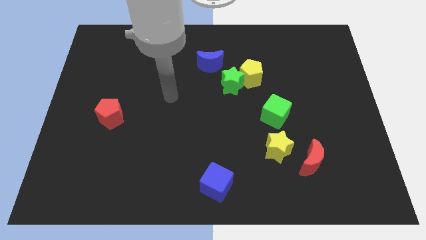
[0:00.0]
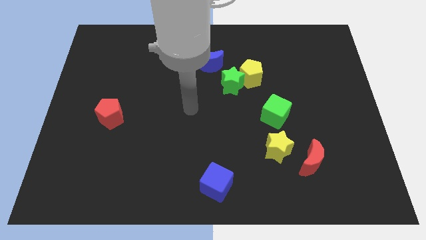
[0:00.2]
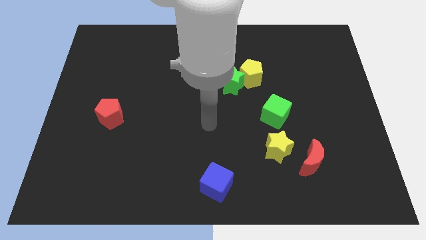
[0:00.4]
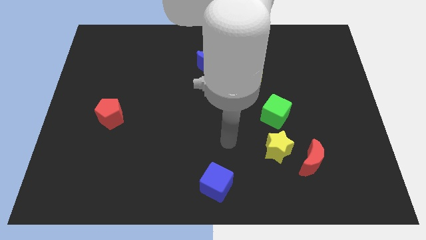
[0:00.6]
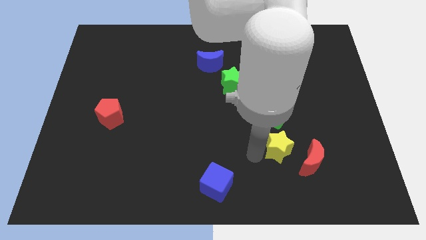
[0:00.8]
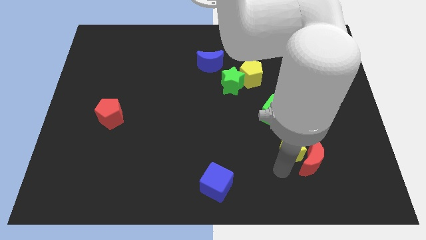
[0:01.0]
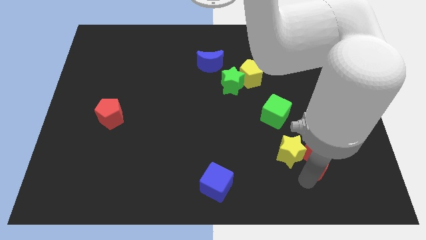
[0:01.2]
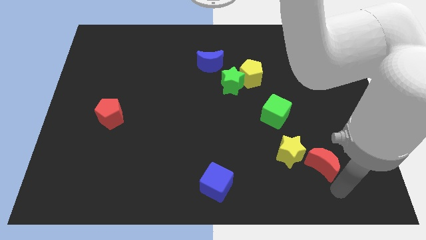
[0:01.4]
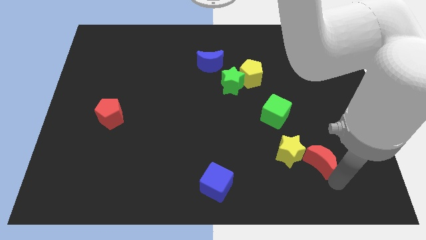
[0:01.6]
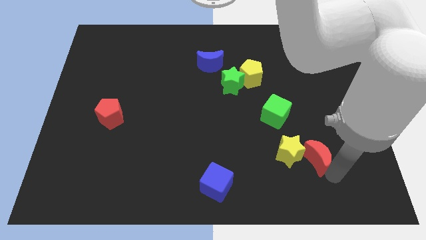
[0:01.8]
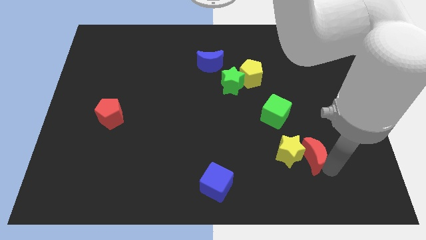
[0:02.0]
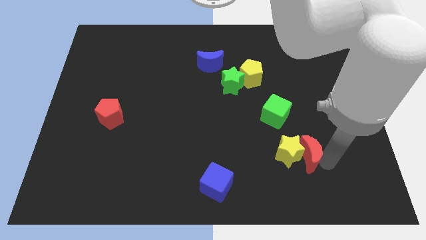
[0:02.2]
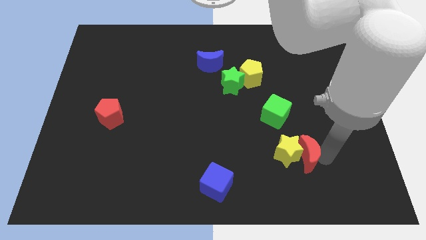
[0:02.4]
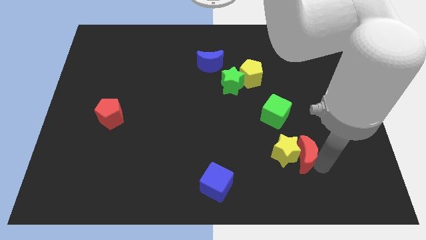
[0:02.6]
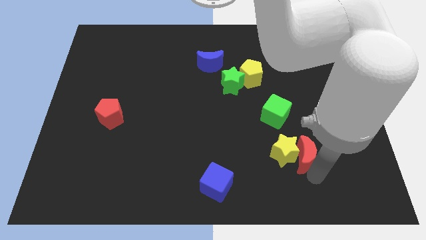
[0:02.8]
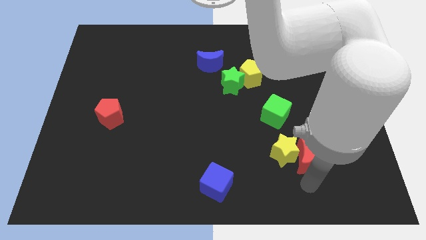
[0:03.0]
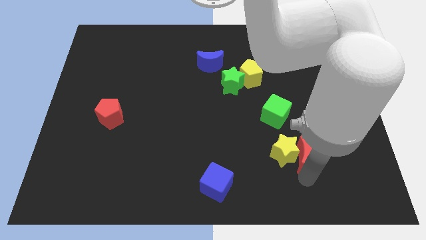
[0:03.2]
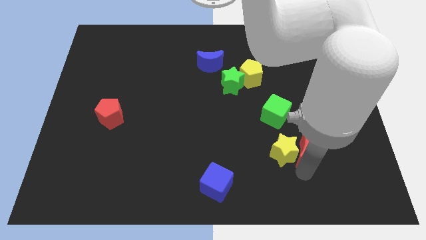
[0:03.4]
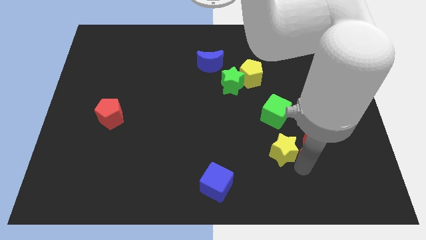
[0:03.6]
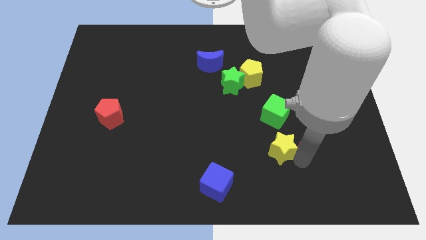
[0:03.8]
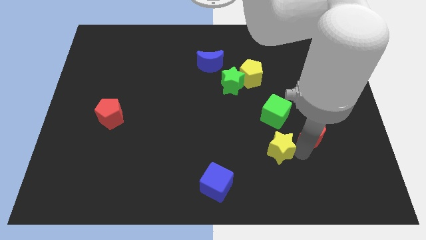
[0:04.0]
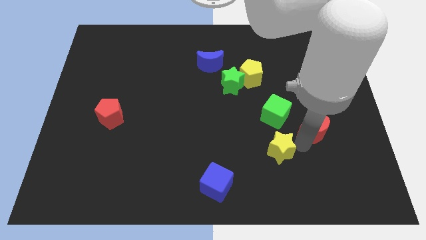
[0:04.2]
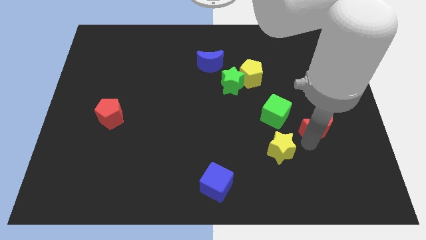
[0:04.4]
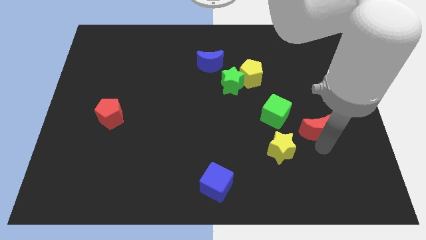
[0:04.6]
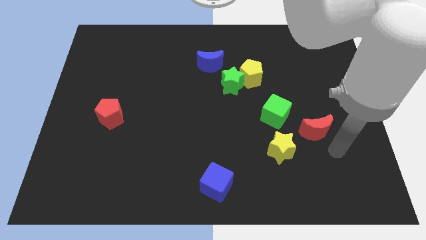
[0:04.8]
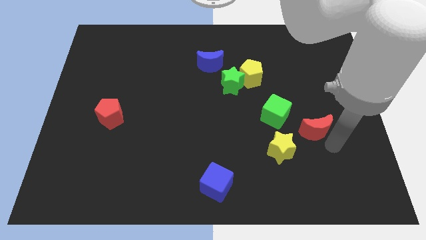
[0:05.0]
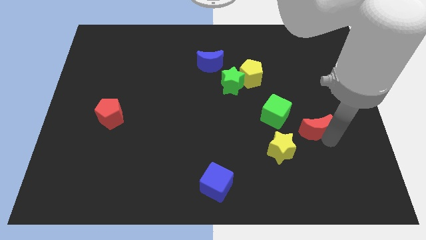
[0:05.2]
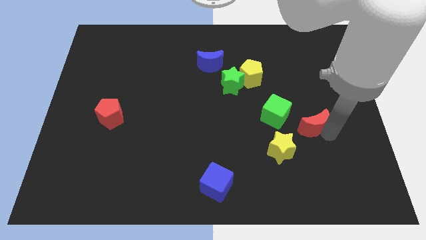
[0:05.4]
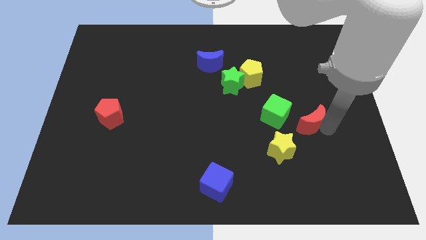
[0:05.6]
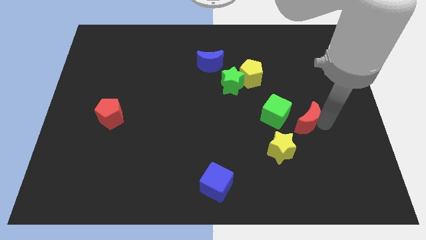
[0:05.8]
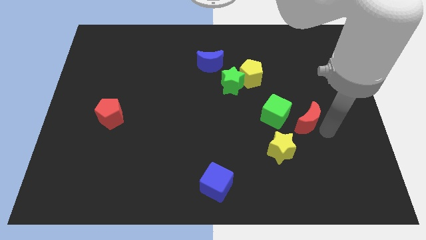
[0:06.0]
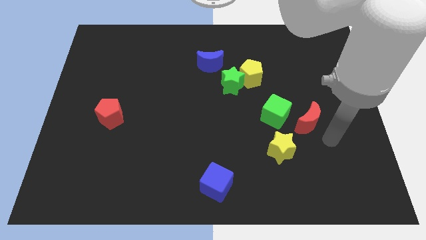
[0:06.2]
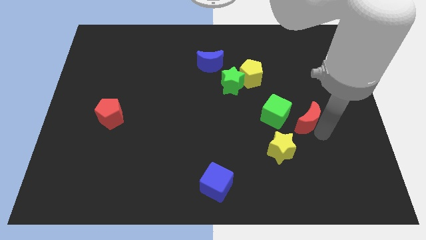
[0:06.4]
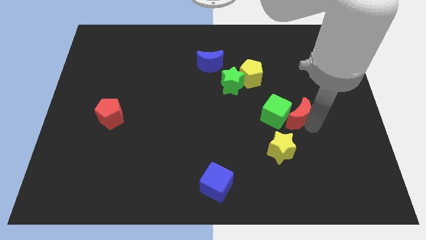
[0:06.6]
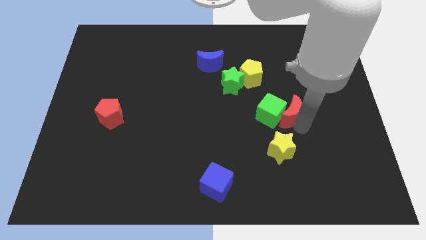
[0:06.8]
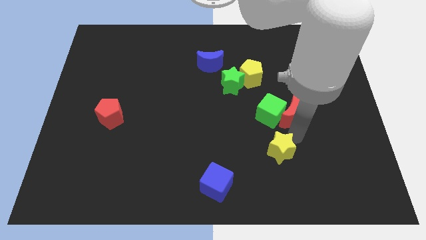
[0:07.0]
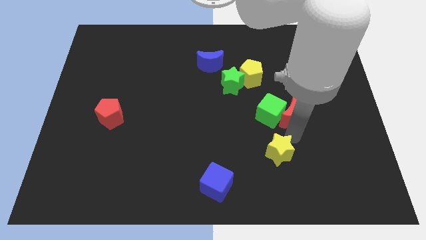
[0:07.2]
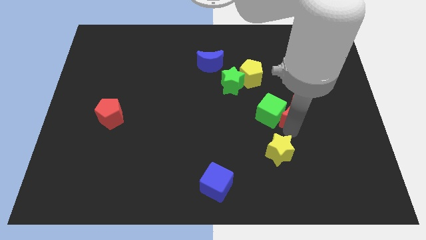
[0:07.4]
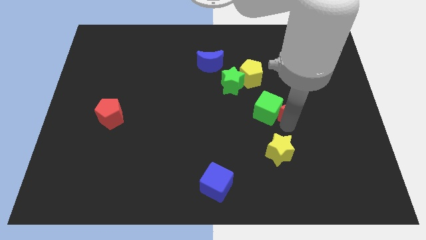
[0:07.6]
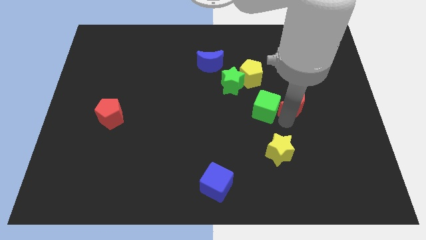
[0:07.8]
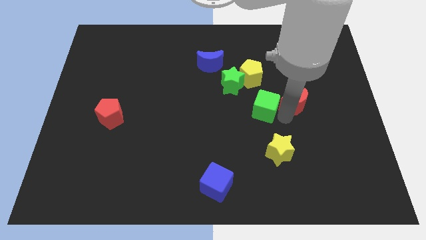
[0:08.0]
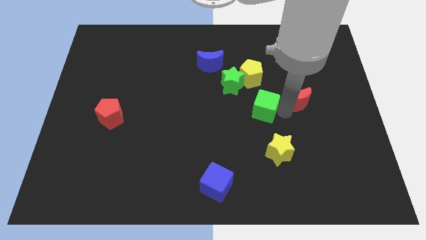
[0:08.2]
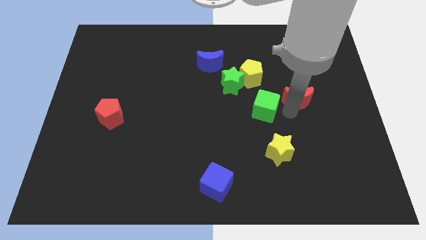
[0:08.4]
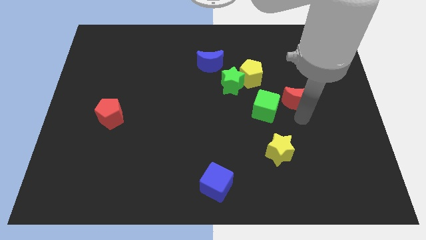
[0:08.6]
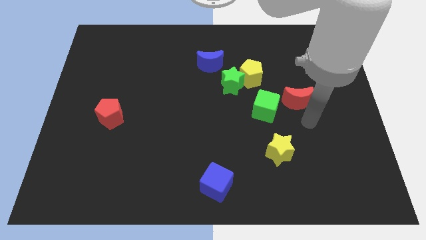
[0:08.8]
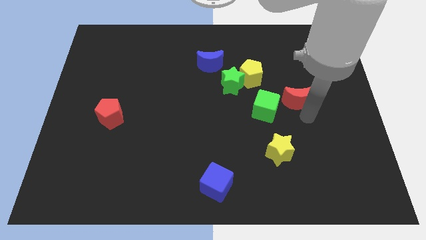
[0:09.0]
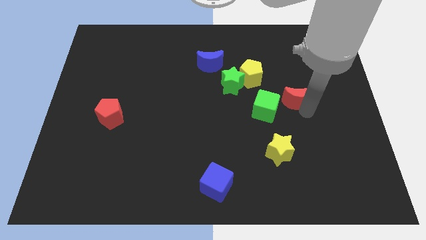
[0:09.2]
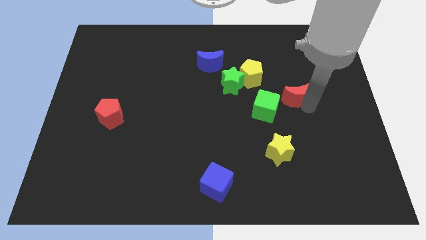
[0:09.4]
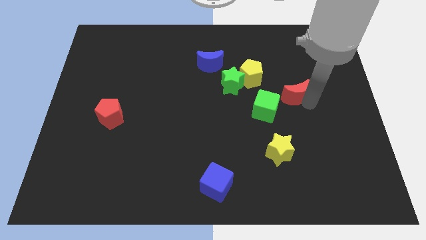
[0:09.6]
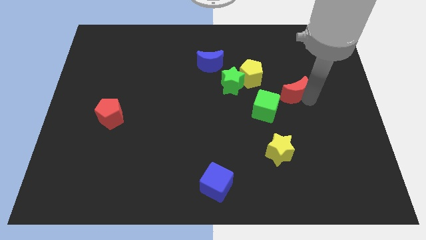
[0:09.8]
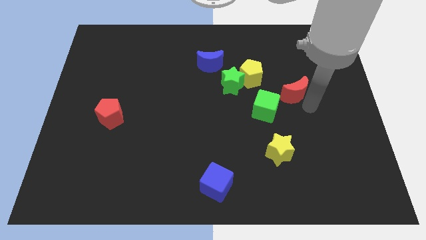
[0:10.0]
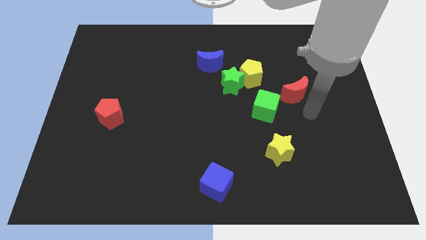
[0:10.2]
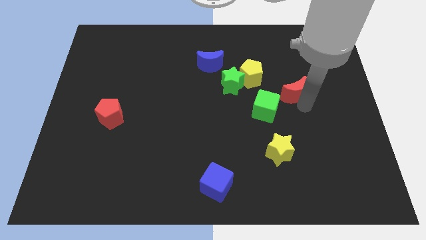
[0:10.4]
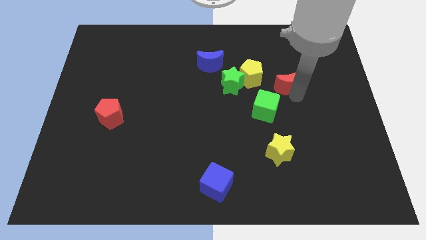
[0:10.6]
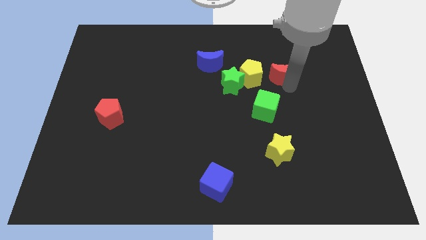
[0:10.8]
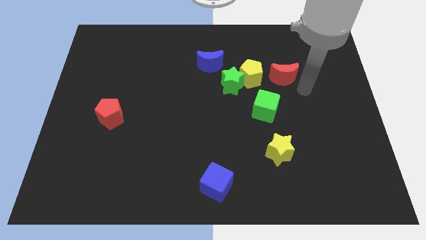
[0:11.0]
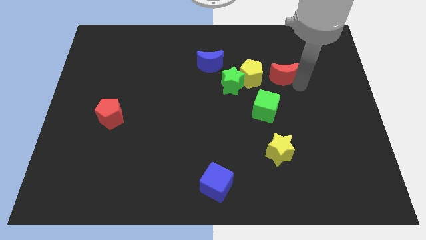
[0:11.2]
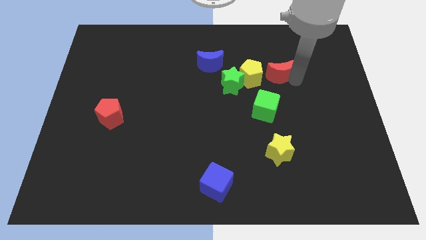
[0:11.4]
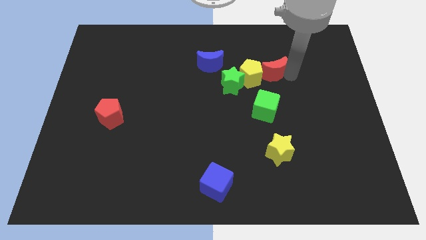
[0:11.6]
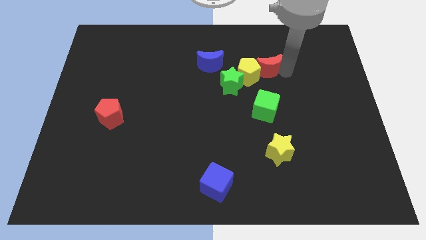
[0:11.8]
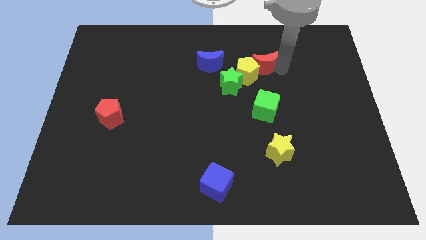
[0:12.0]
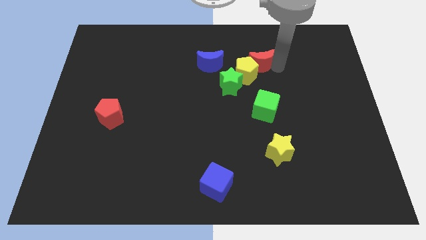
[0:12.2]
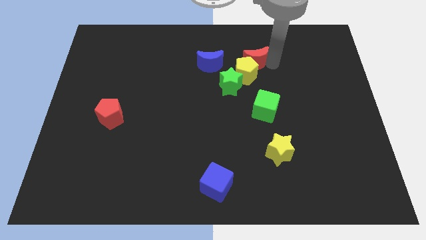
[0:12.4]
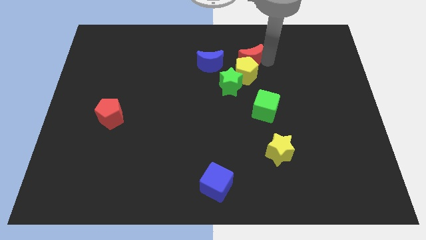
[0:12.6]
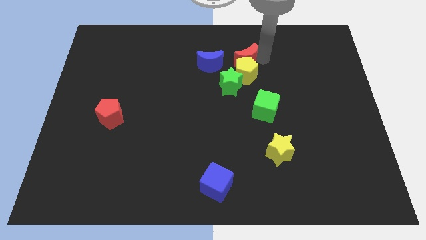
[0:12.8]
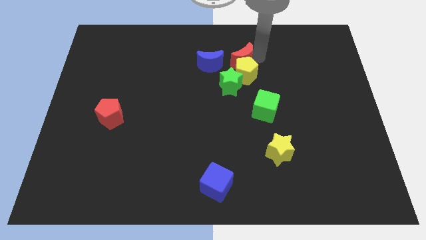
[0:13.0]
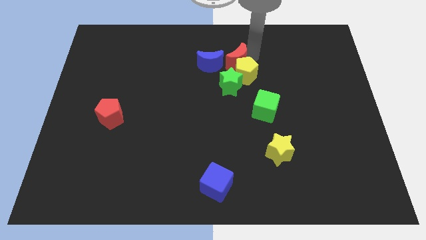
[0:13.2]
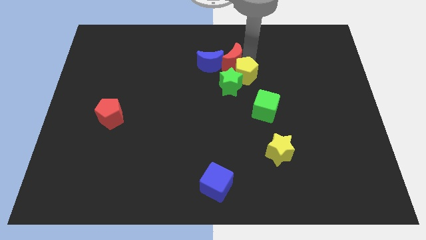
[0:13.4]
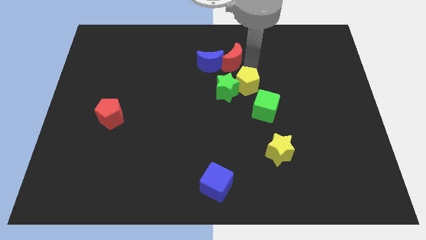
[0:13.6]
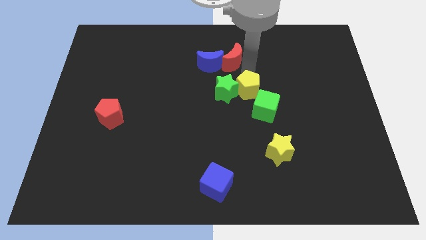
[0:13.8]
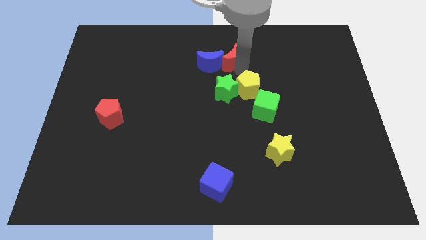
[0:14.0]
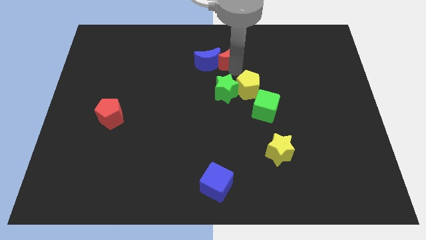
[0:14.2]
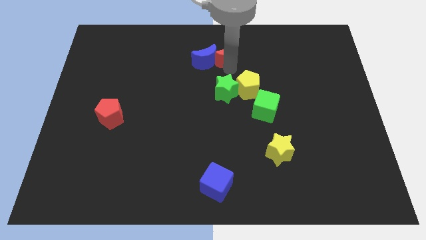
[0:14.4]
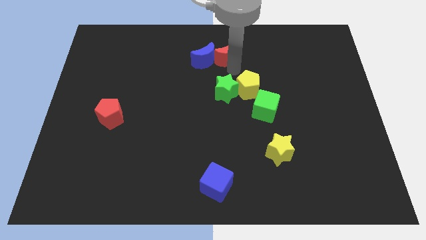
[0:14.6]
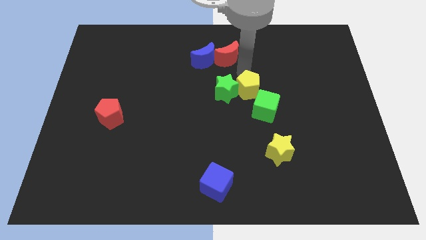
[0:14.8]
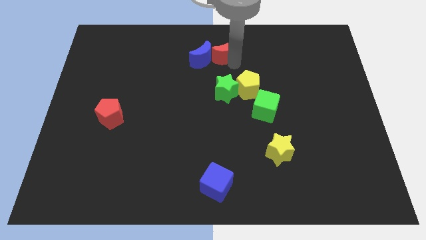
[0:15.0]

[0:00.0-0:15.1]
push the red moon to the top side
